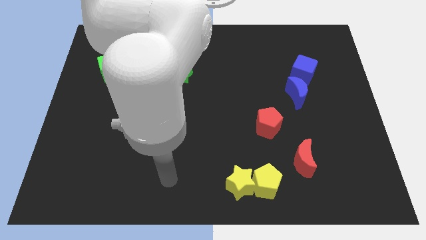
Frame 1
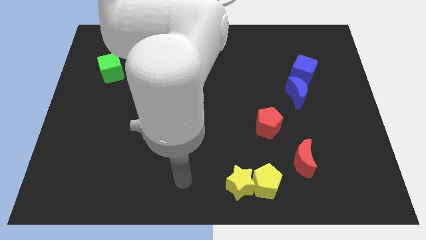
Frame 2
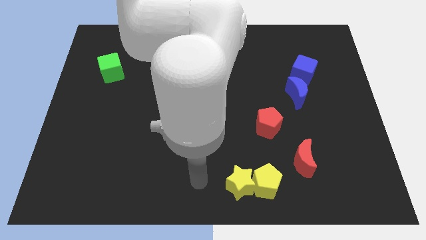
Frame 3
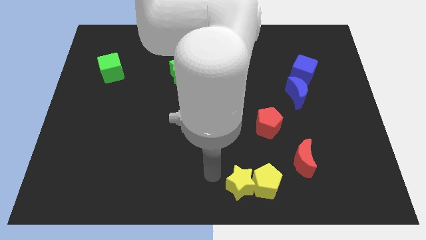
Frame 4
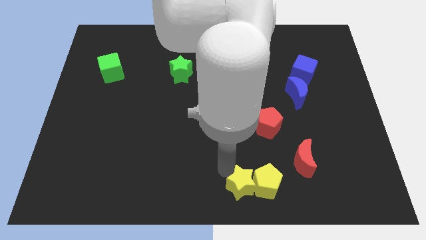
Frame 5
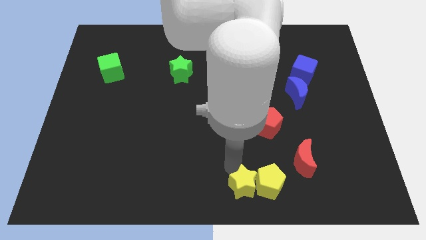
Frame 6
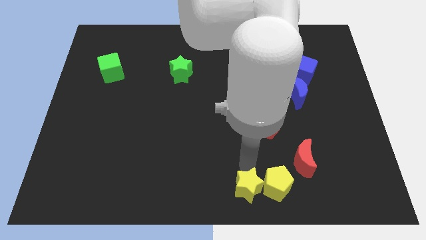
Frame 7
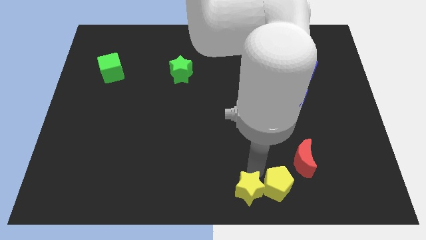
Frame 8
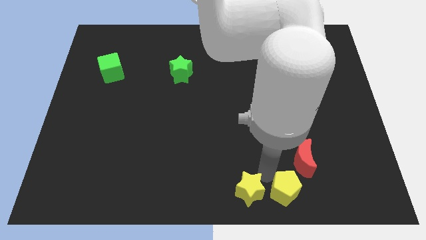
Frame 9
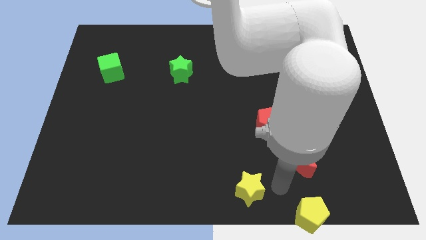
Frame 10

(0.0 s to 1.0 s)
separate the yellow star from the yellow pentagon

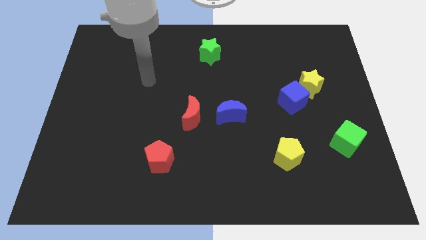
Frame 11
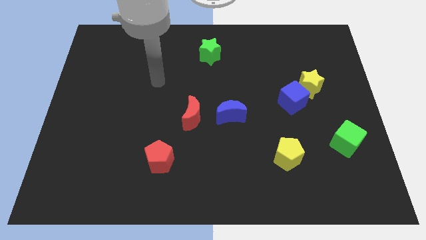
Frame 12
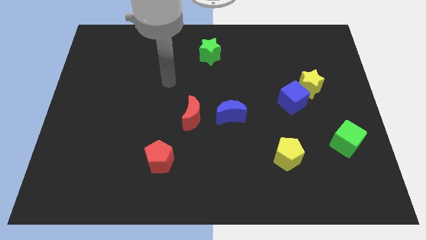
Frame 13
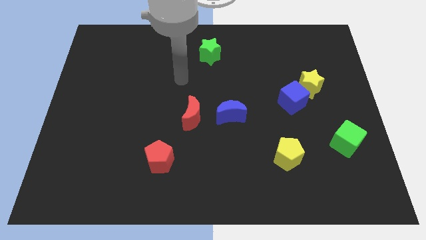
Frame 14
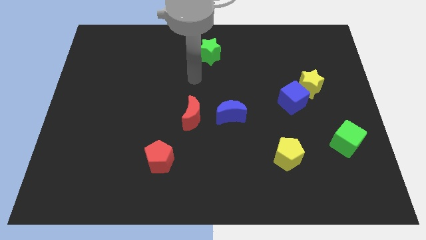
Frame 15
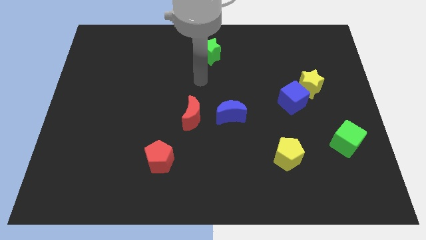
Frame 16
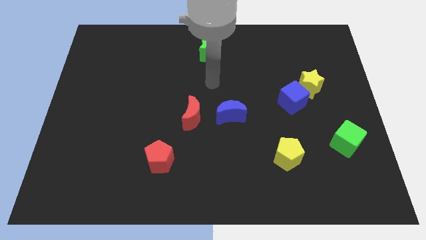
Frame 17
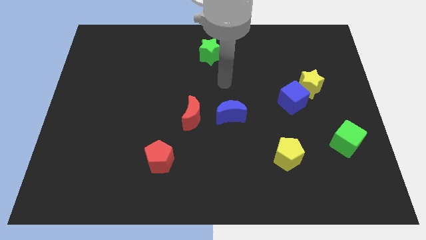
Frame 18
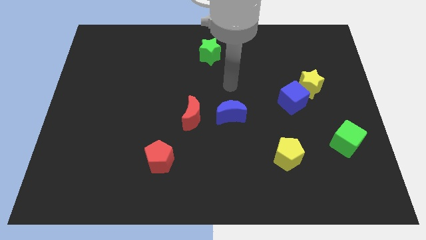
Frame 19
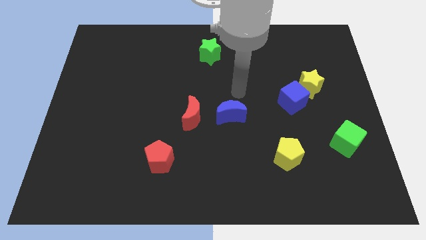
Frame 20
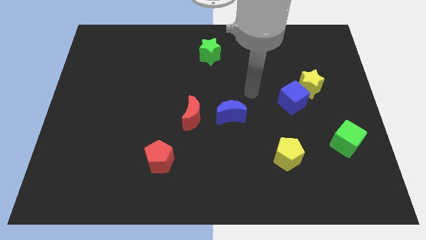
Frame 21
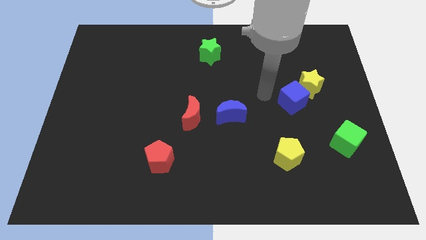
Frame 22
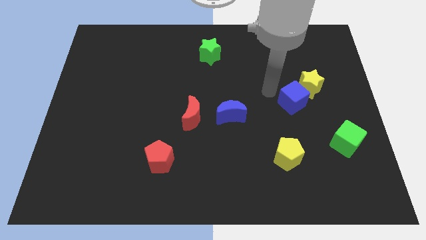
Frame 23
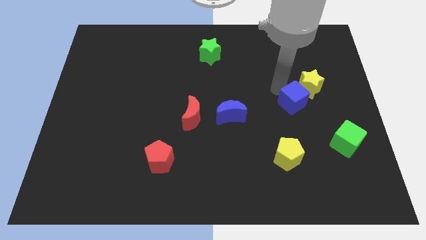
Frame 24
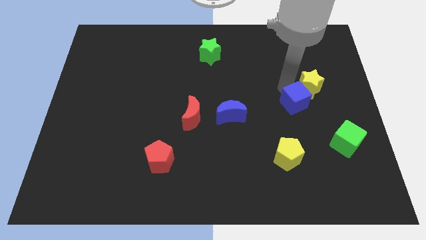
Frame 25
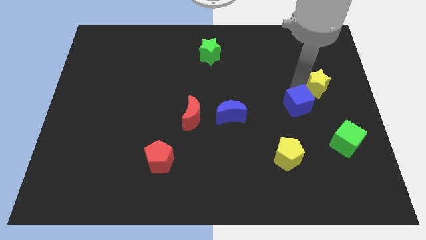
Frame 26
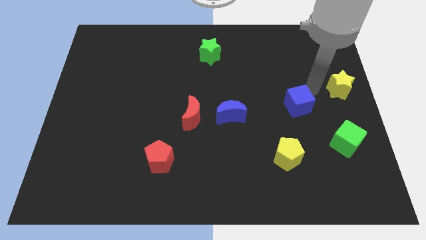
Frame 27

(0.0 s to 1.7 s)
separate the blue cube from the yellow star

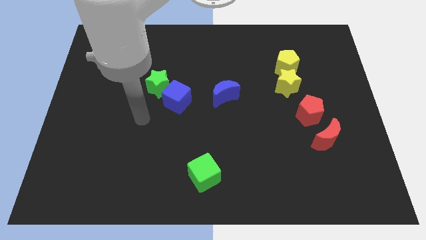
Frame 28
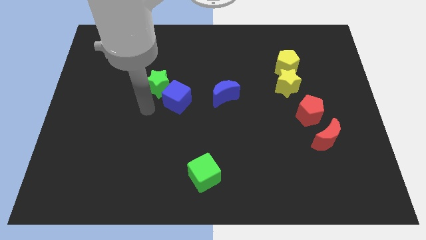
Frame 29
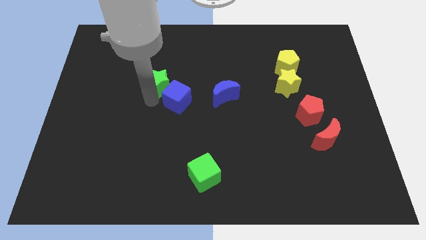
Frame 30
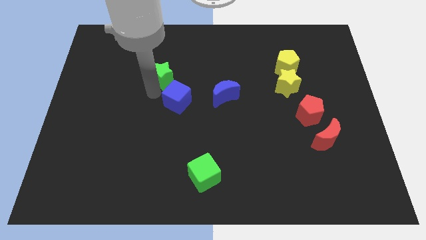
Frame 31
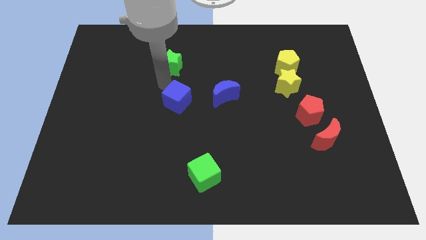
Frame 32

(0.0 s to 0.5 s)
pull the blue cube apart from the green star

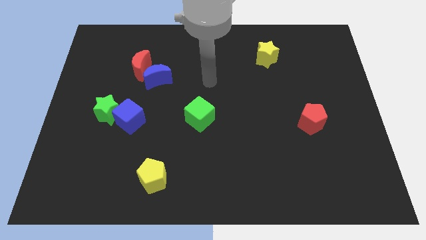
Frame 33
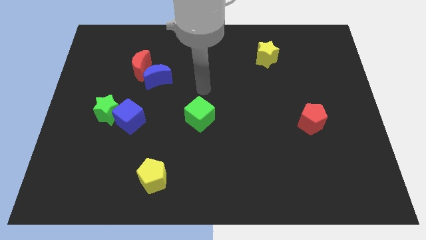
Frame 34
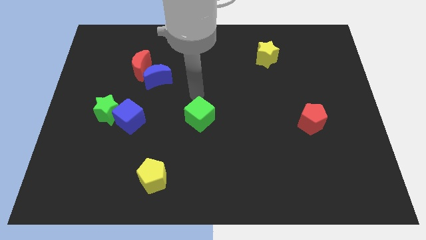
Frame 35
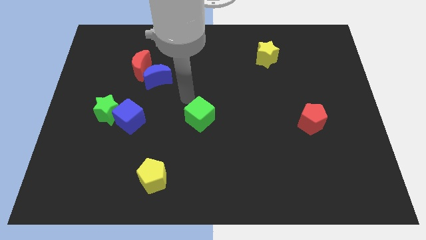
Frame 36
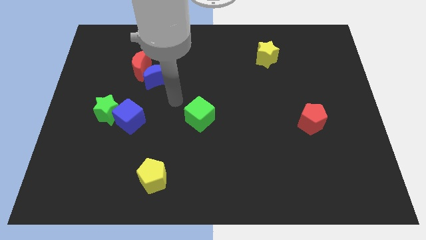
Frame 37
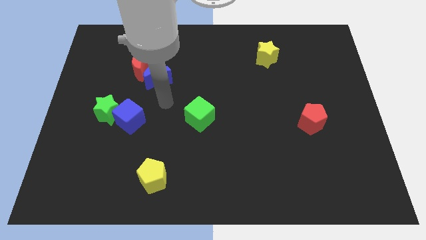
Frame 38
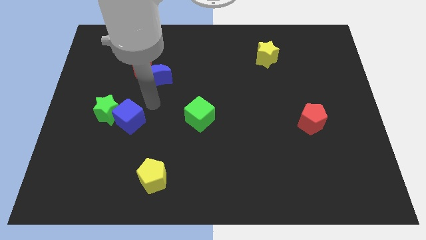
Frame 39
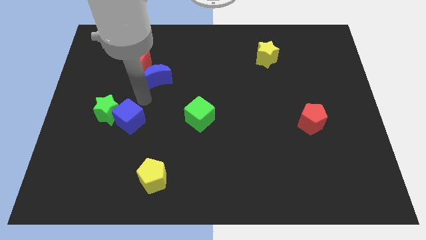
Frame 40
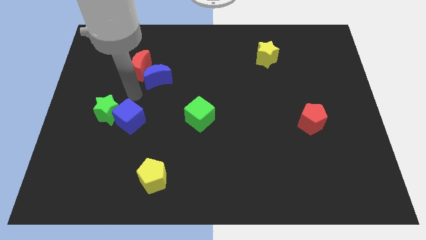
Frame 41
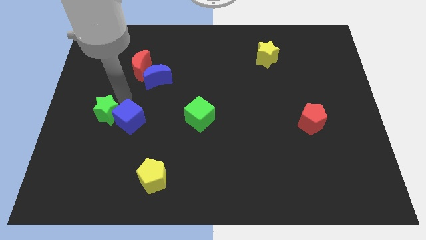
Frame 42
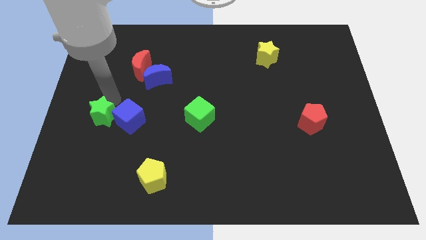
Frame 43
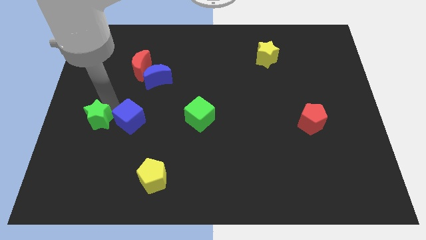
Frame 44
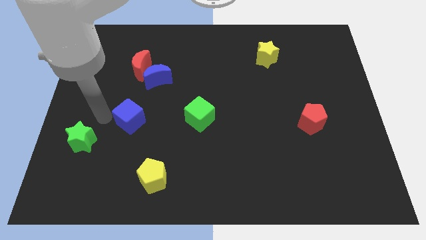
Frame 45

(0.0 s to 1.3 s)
move the blue cube away from the green star

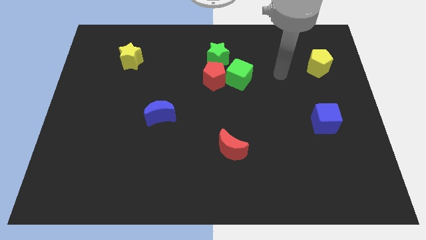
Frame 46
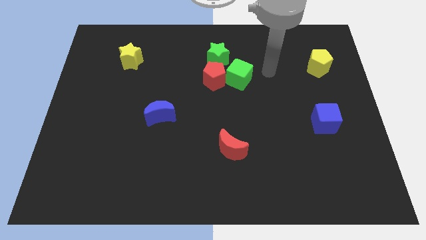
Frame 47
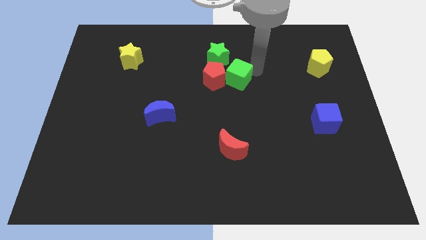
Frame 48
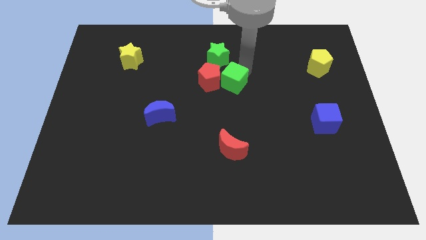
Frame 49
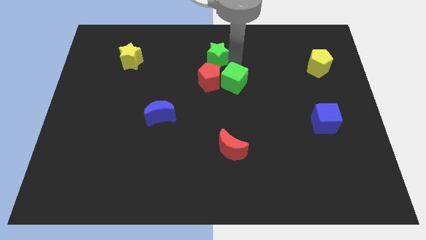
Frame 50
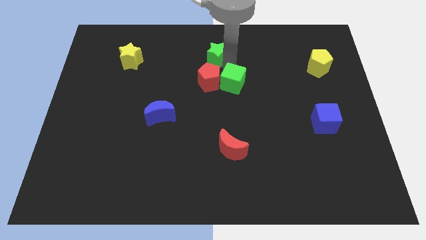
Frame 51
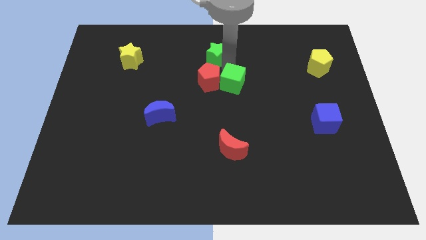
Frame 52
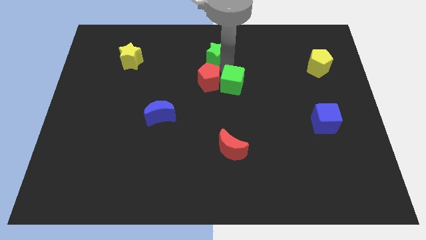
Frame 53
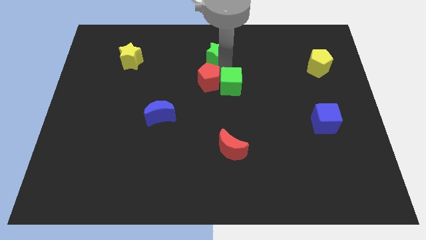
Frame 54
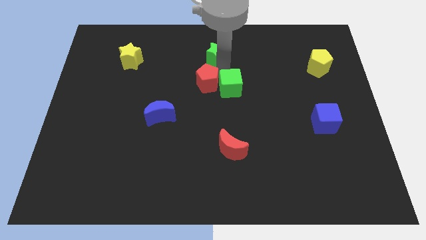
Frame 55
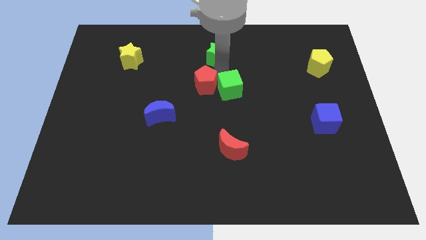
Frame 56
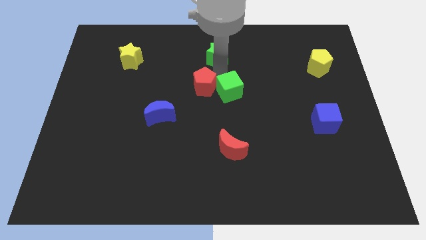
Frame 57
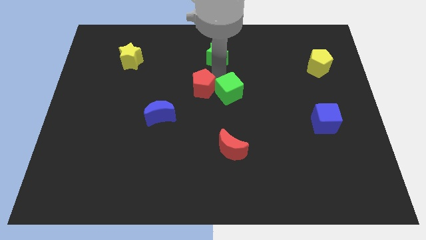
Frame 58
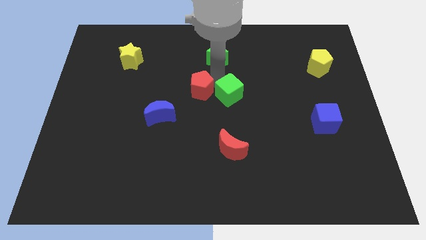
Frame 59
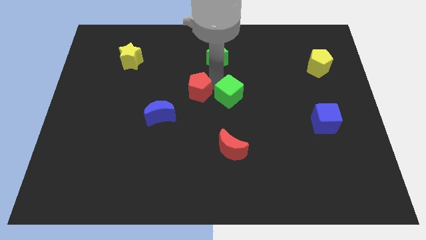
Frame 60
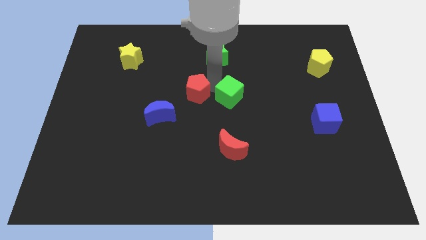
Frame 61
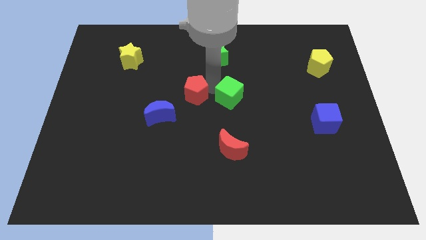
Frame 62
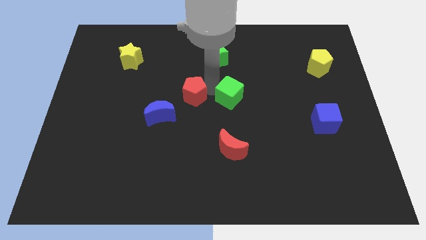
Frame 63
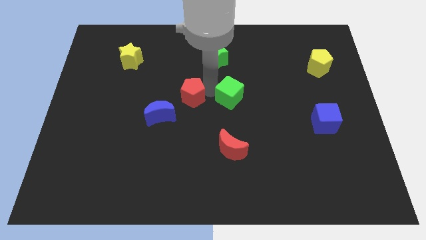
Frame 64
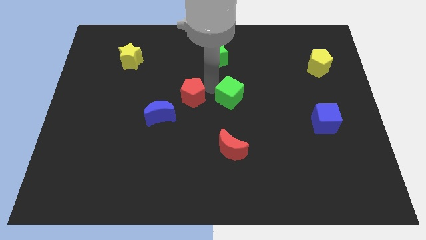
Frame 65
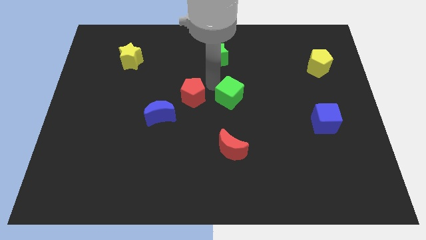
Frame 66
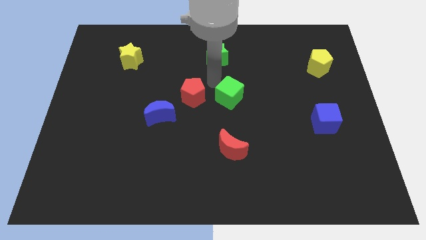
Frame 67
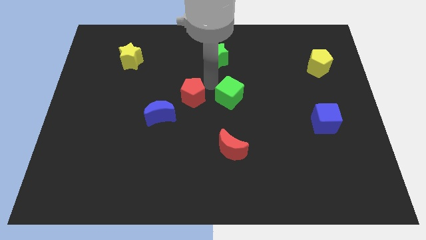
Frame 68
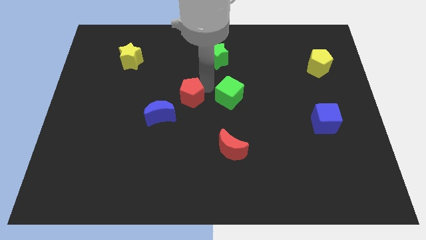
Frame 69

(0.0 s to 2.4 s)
pull the red pentagon apart from the green cube and green star

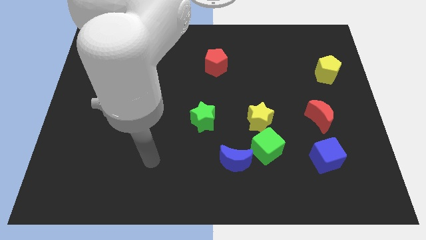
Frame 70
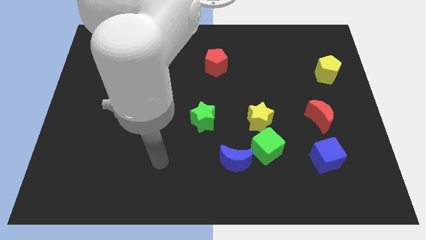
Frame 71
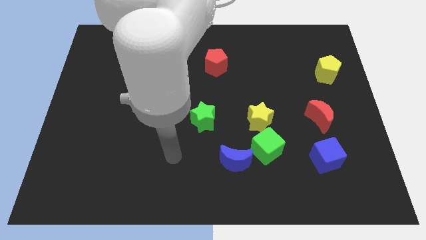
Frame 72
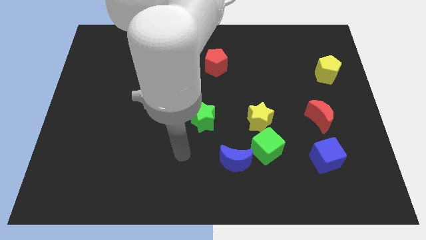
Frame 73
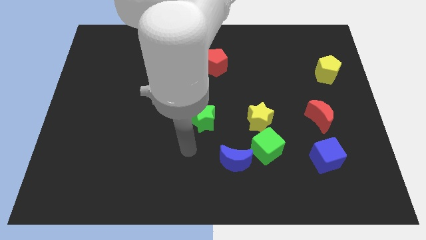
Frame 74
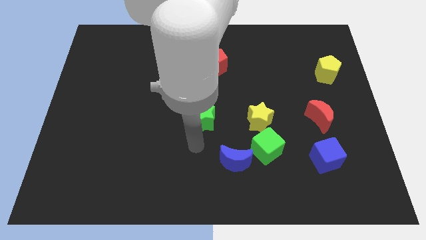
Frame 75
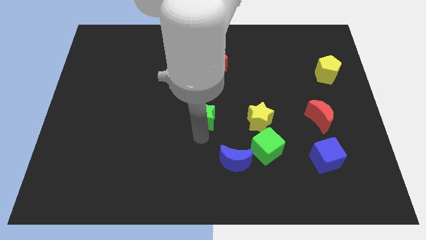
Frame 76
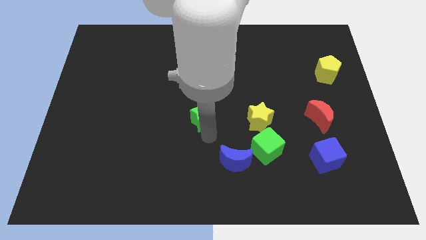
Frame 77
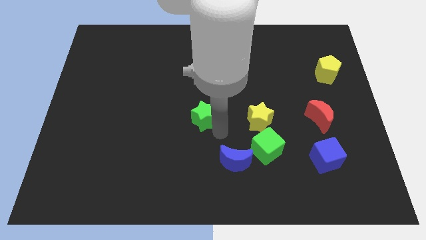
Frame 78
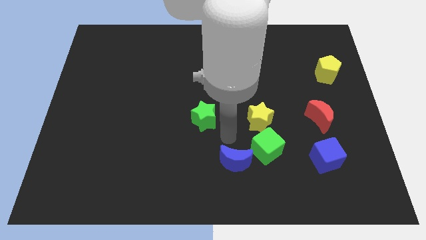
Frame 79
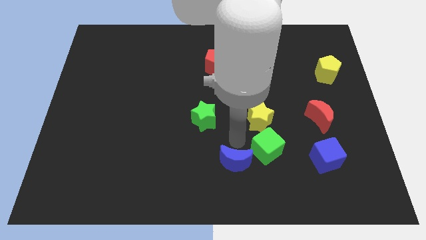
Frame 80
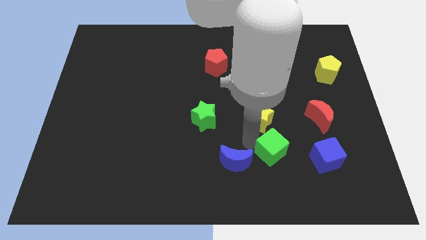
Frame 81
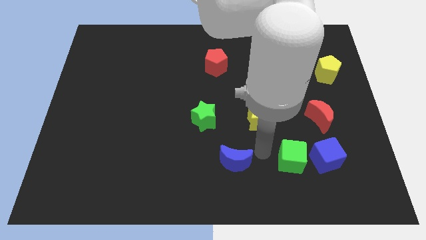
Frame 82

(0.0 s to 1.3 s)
separate the blue moon from the green cube

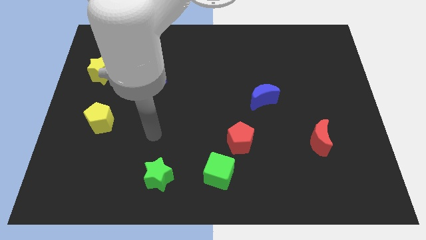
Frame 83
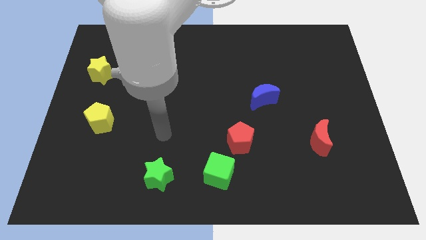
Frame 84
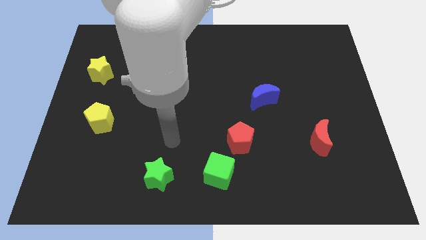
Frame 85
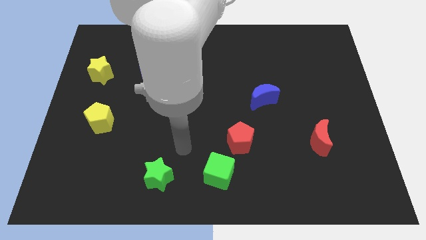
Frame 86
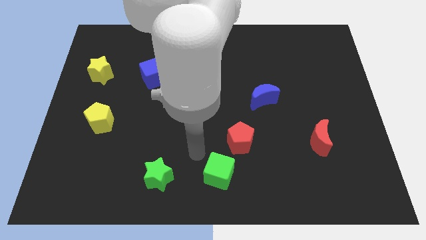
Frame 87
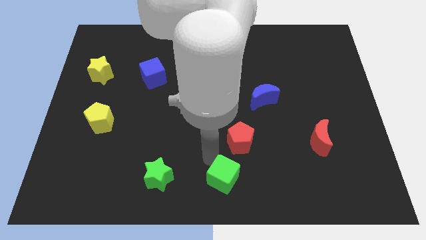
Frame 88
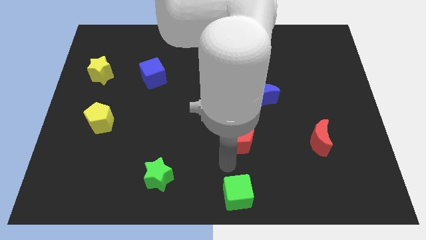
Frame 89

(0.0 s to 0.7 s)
move the red pentagon away from the green cube

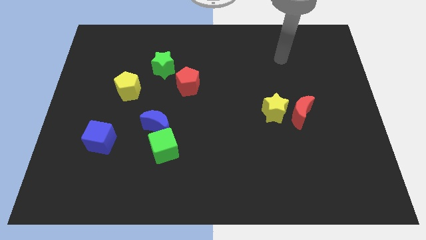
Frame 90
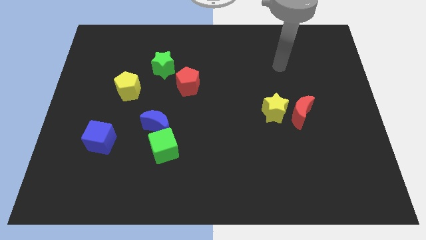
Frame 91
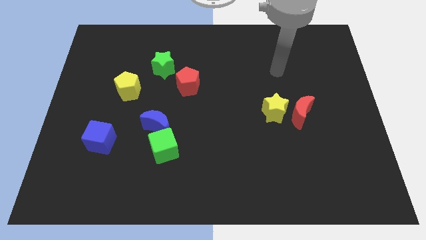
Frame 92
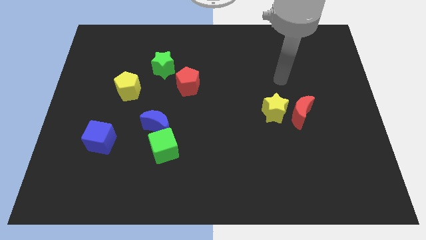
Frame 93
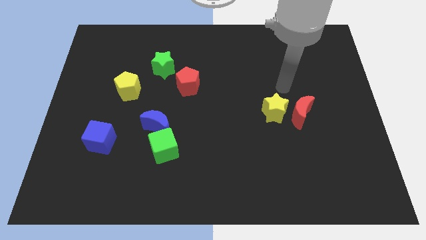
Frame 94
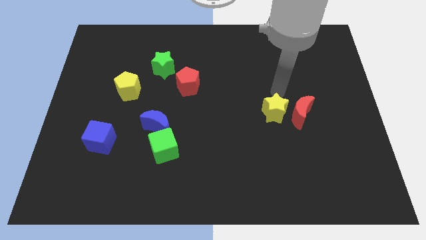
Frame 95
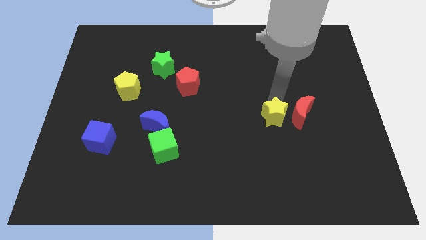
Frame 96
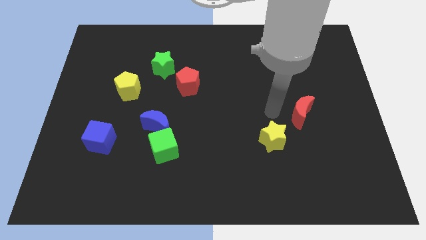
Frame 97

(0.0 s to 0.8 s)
separate the red moon from the yellow star
